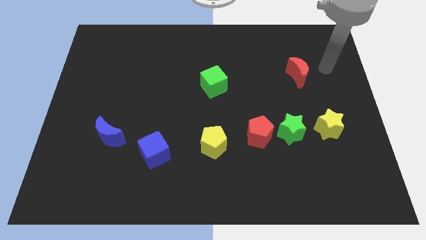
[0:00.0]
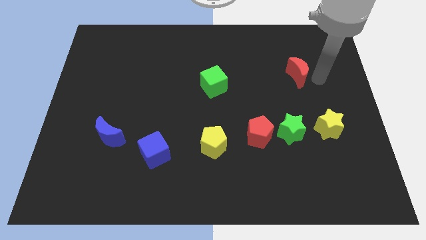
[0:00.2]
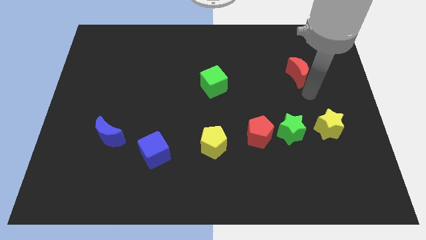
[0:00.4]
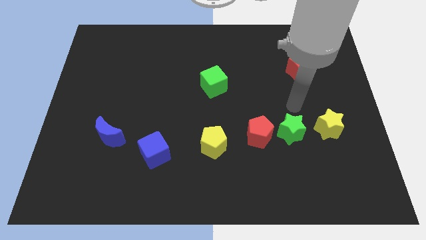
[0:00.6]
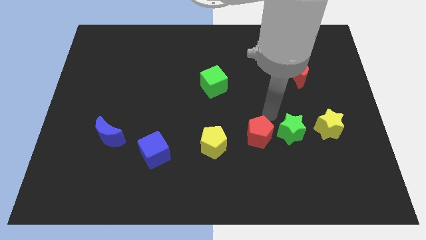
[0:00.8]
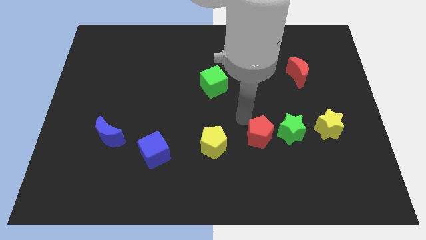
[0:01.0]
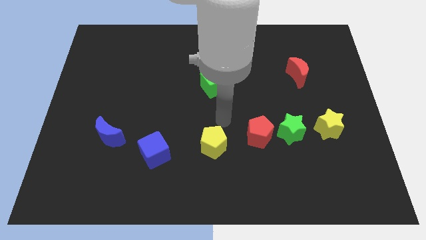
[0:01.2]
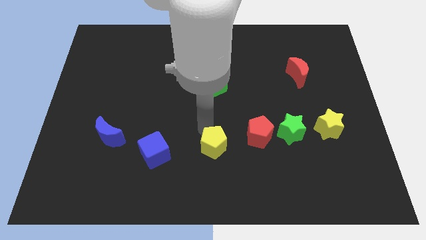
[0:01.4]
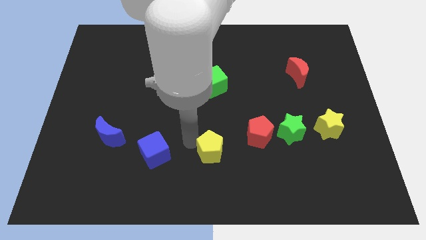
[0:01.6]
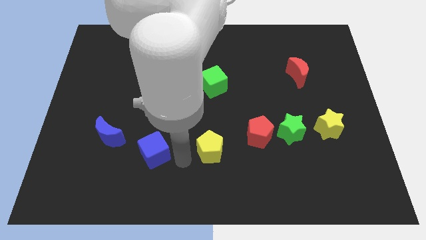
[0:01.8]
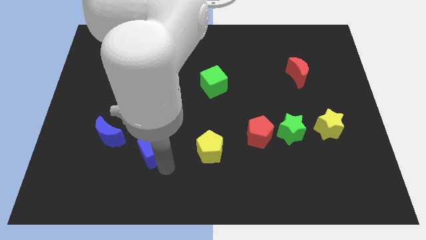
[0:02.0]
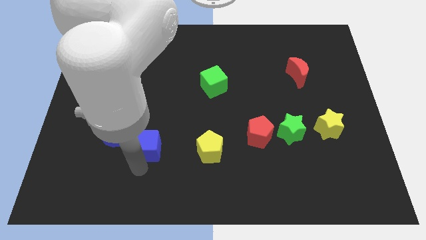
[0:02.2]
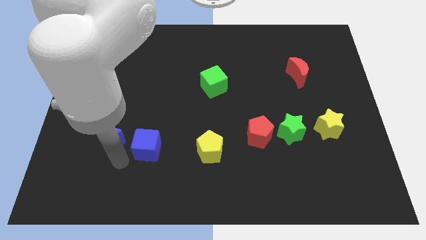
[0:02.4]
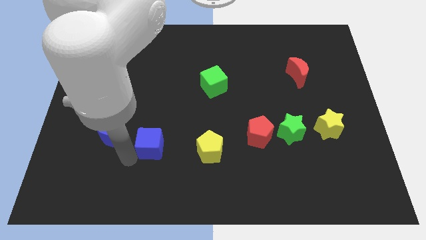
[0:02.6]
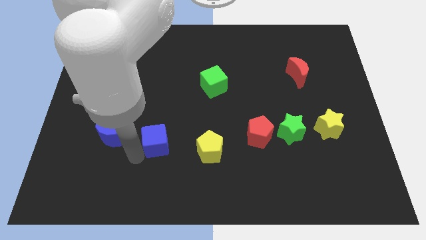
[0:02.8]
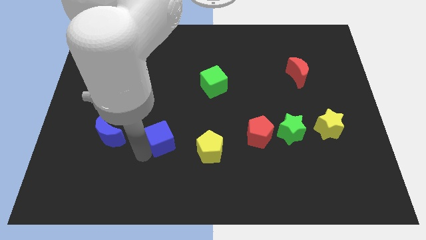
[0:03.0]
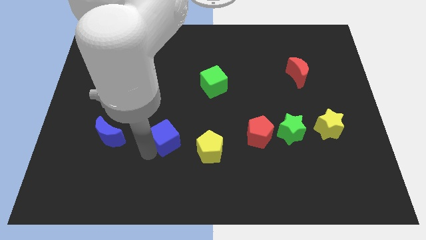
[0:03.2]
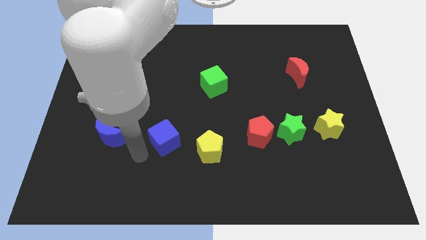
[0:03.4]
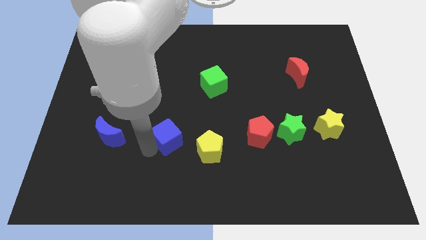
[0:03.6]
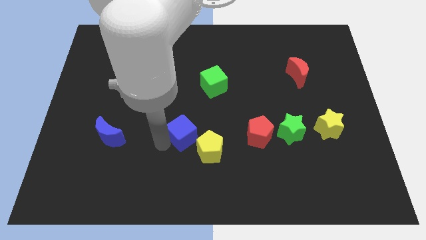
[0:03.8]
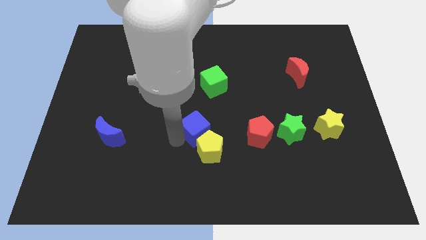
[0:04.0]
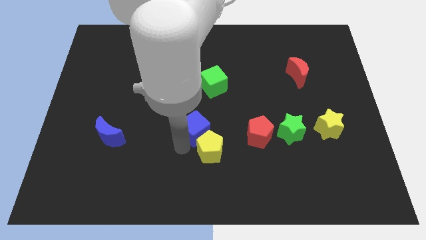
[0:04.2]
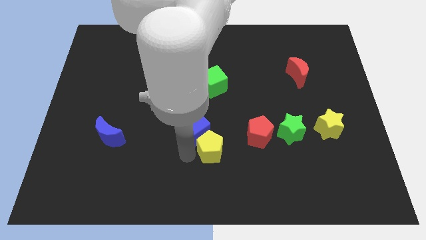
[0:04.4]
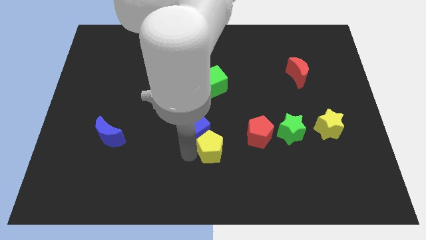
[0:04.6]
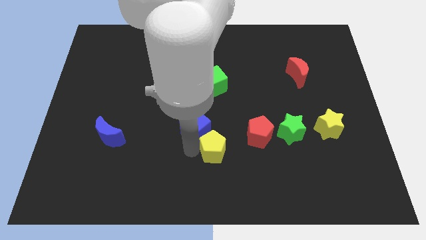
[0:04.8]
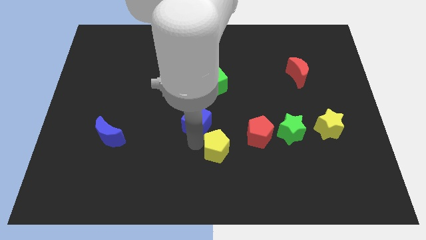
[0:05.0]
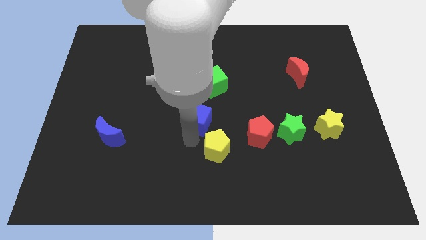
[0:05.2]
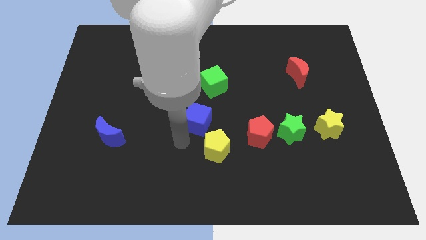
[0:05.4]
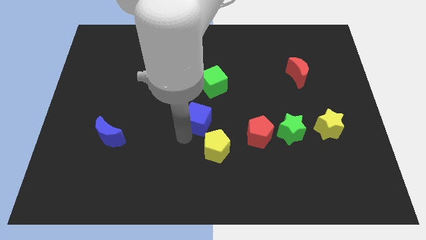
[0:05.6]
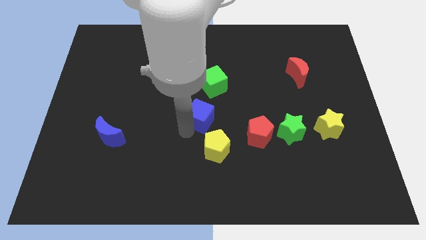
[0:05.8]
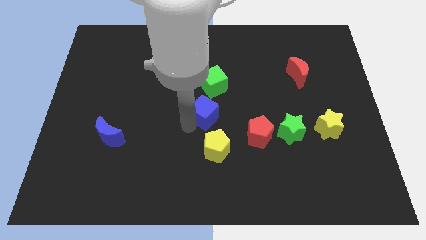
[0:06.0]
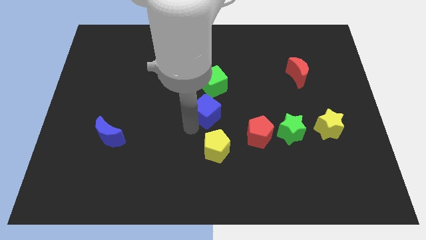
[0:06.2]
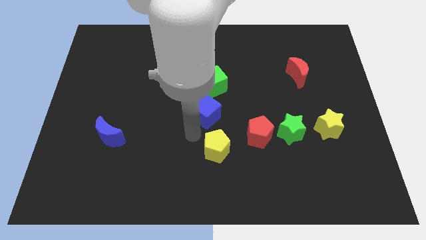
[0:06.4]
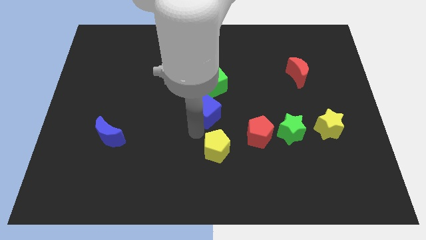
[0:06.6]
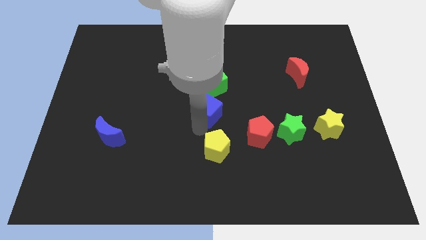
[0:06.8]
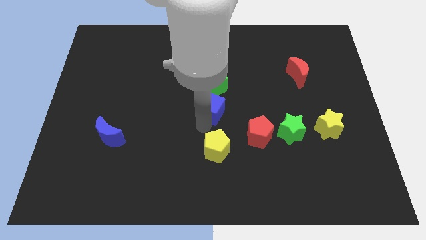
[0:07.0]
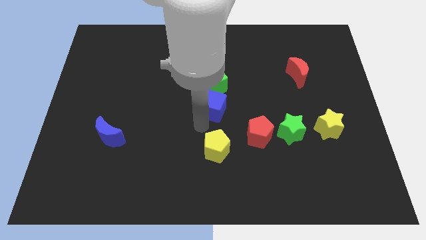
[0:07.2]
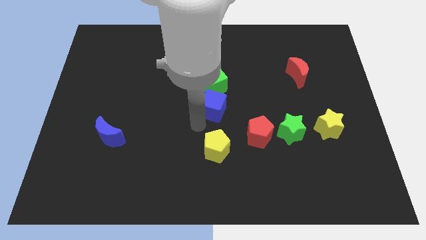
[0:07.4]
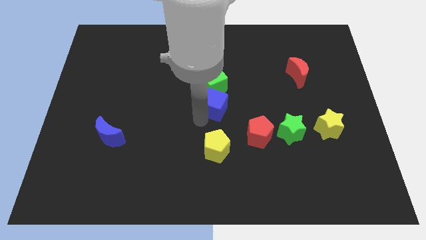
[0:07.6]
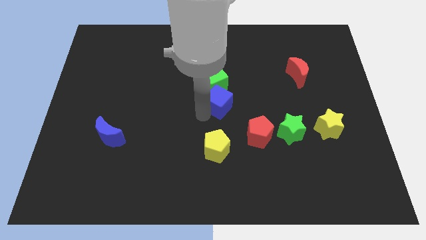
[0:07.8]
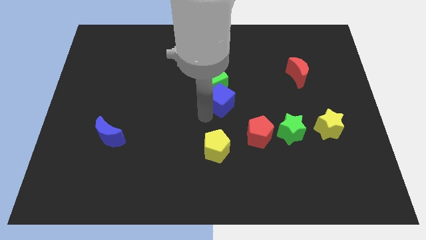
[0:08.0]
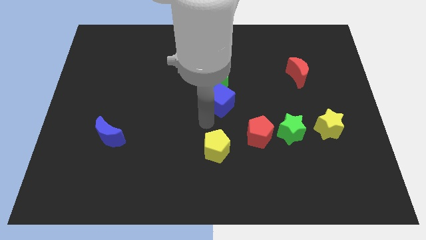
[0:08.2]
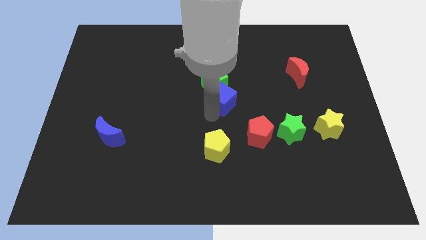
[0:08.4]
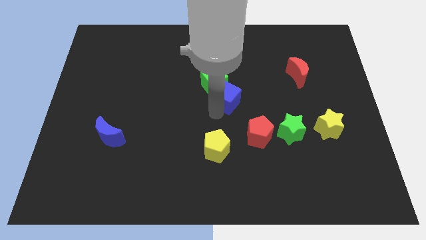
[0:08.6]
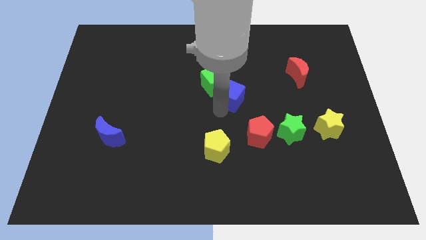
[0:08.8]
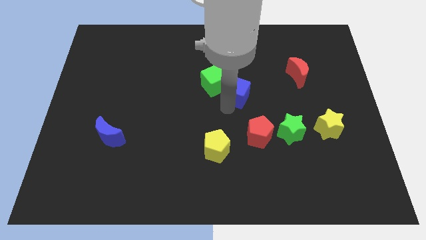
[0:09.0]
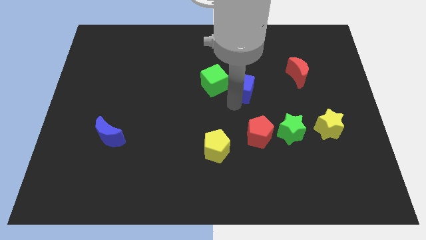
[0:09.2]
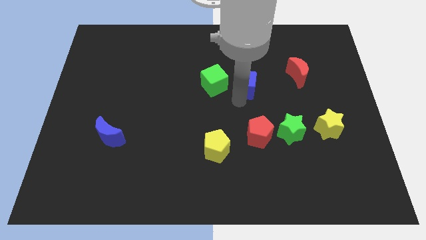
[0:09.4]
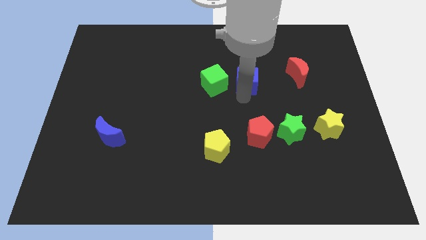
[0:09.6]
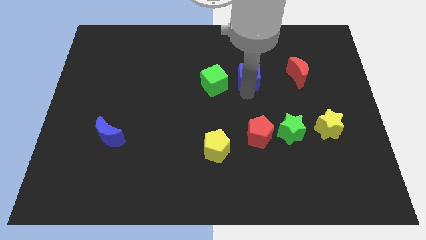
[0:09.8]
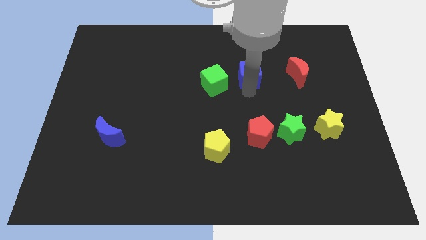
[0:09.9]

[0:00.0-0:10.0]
put the blue cube diagonally up and to the right of the green cube

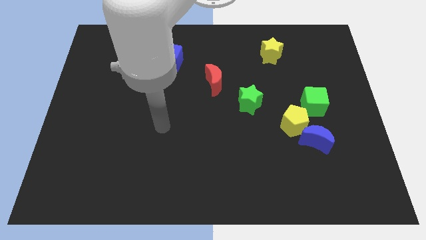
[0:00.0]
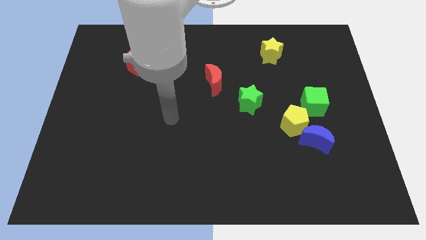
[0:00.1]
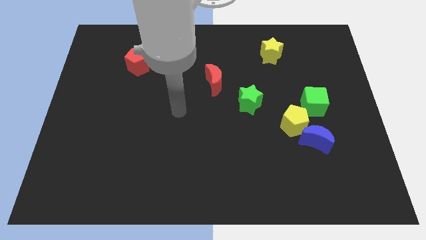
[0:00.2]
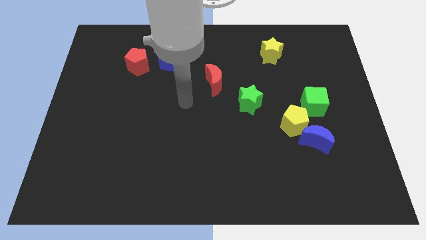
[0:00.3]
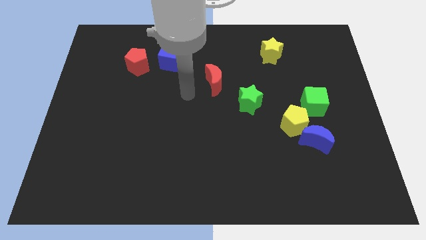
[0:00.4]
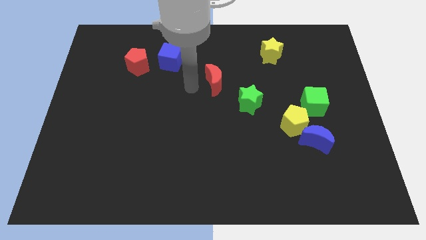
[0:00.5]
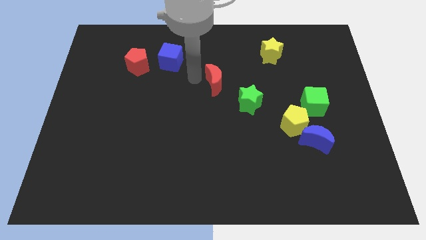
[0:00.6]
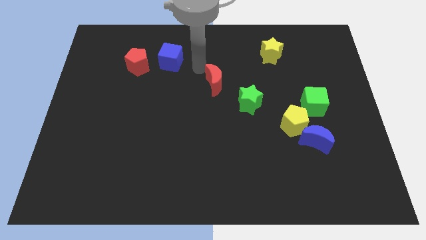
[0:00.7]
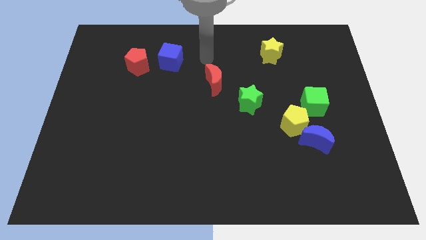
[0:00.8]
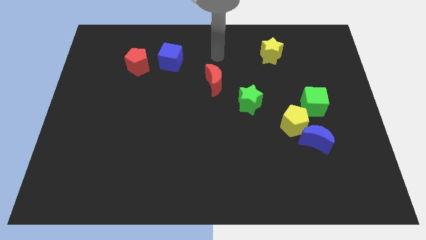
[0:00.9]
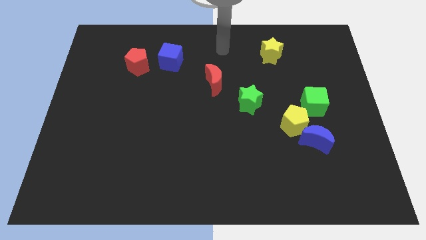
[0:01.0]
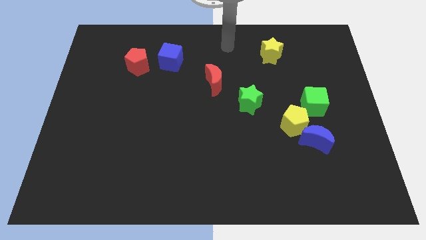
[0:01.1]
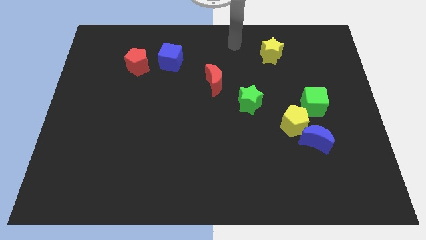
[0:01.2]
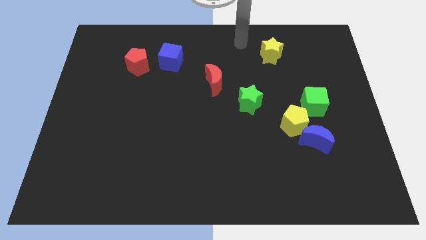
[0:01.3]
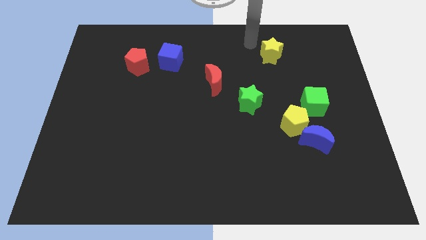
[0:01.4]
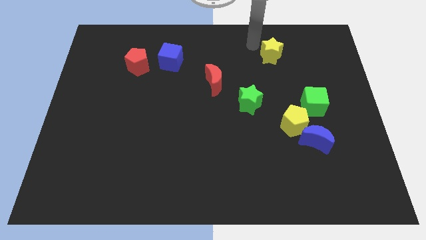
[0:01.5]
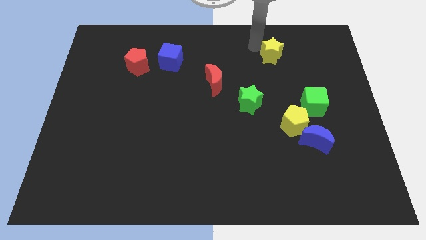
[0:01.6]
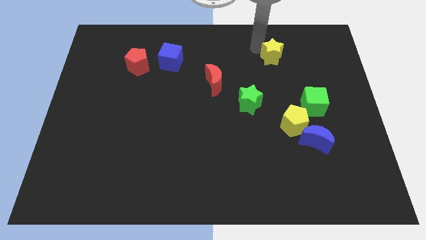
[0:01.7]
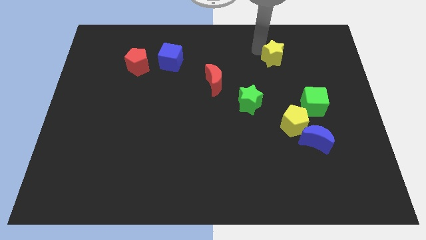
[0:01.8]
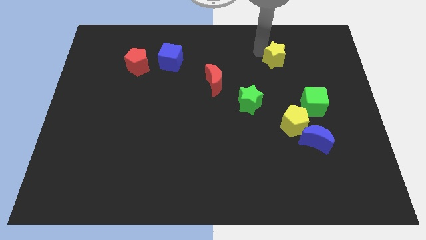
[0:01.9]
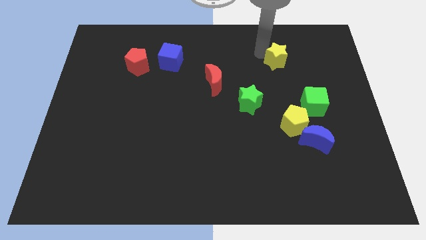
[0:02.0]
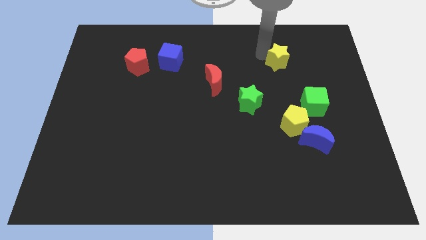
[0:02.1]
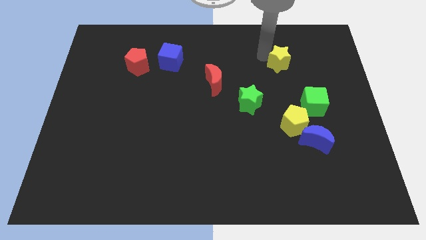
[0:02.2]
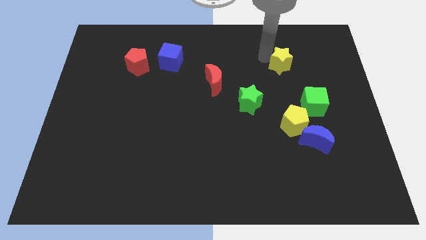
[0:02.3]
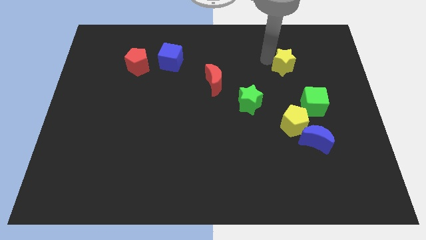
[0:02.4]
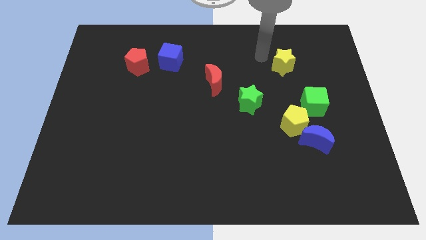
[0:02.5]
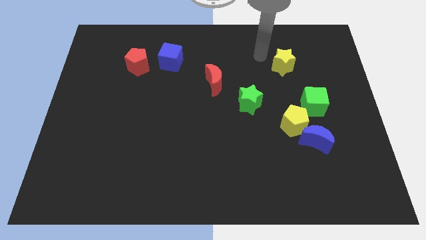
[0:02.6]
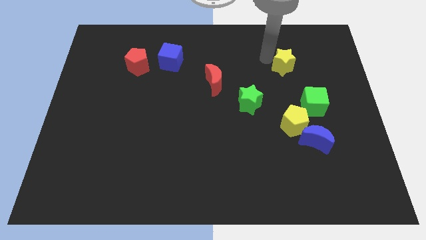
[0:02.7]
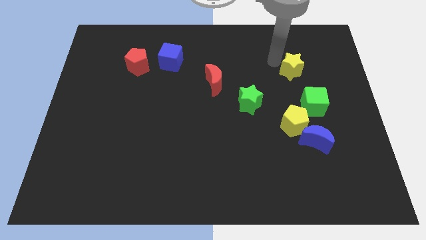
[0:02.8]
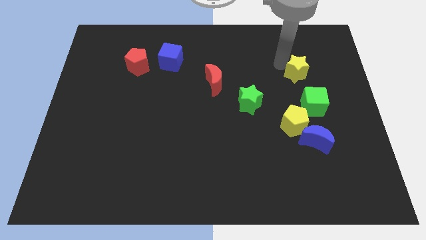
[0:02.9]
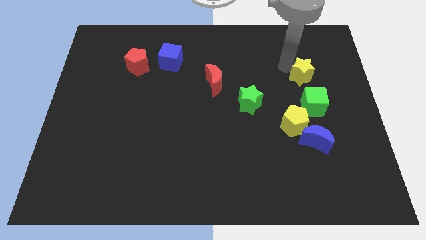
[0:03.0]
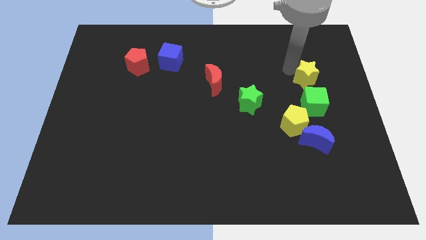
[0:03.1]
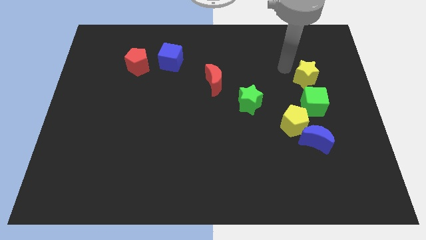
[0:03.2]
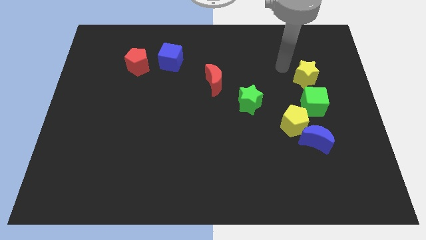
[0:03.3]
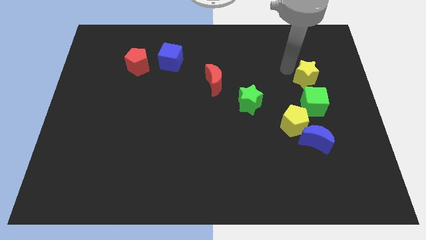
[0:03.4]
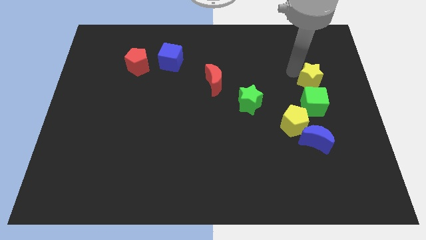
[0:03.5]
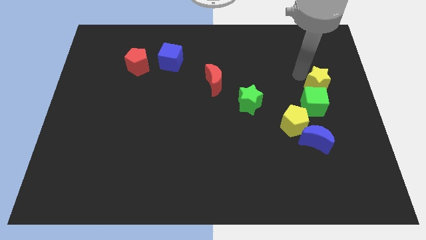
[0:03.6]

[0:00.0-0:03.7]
move the yellow star to the top right of the green cube
